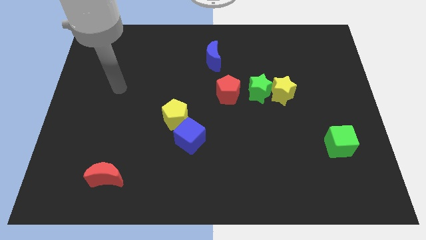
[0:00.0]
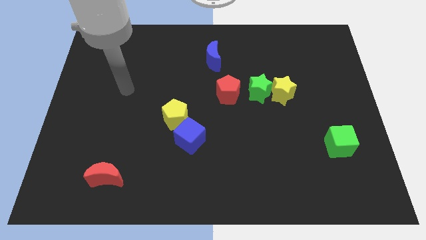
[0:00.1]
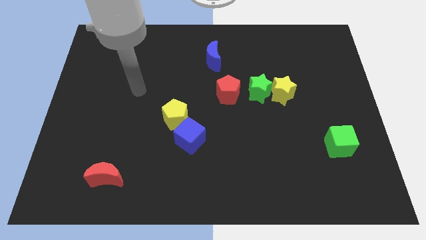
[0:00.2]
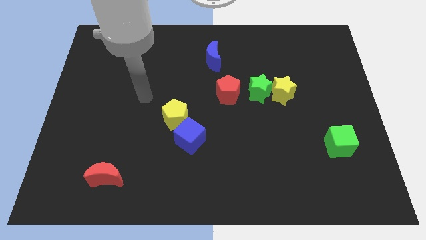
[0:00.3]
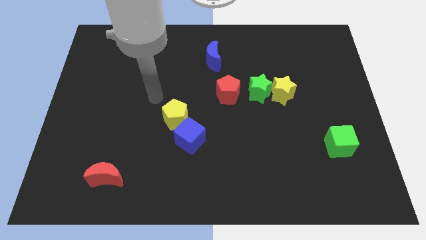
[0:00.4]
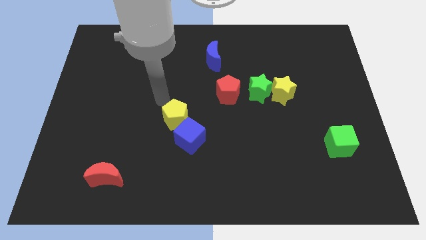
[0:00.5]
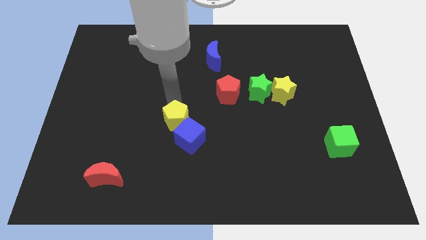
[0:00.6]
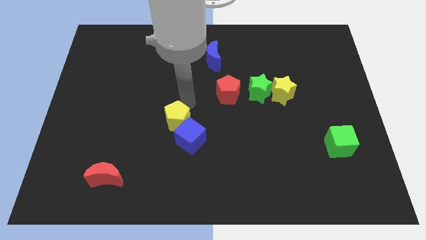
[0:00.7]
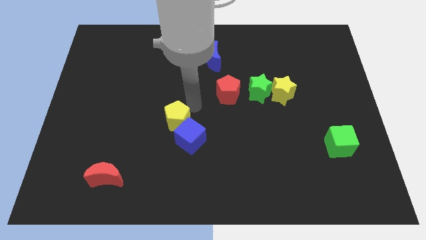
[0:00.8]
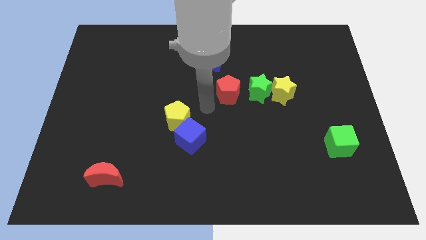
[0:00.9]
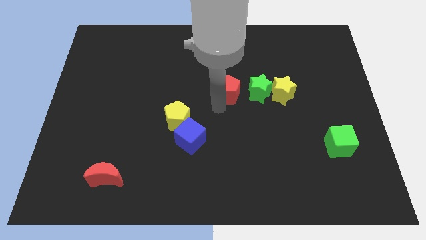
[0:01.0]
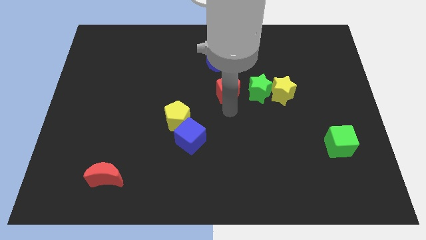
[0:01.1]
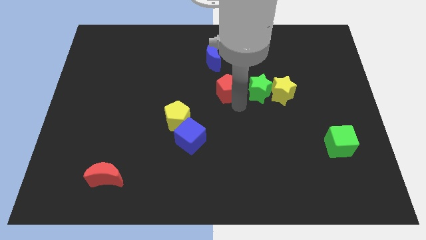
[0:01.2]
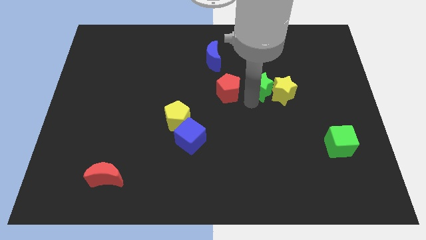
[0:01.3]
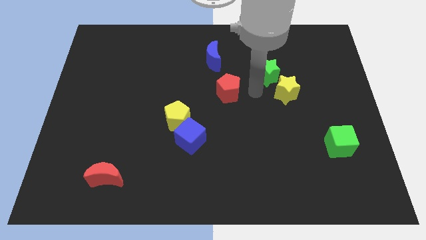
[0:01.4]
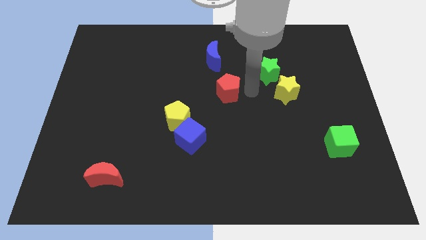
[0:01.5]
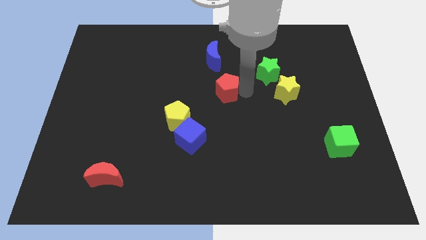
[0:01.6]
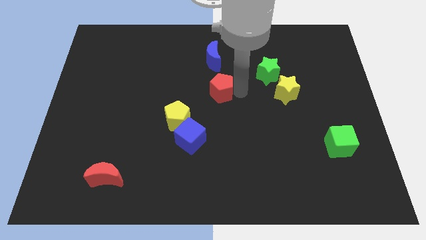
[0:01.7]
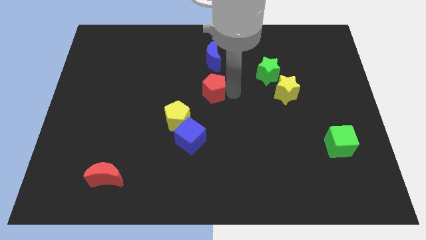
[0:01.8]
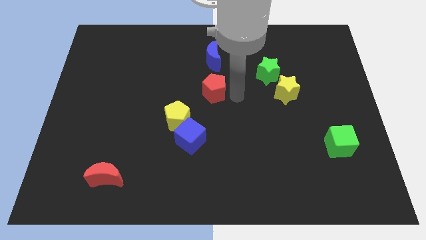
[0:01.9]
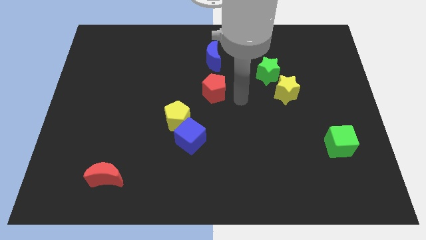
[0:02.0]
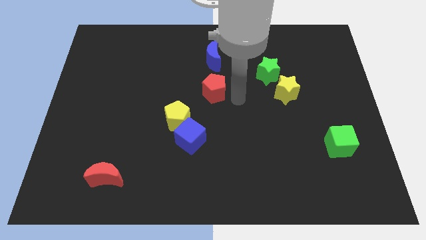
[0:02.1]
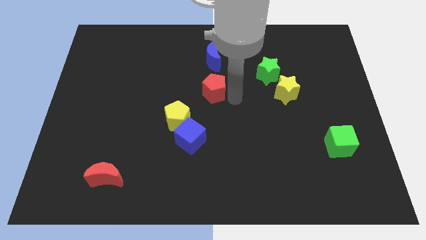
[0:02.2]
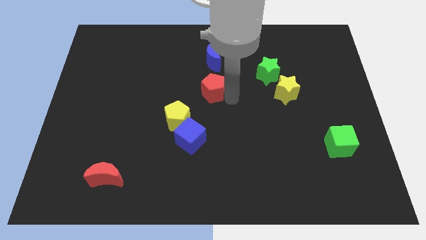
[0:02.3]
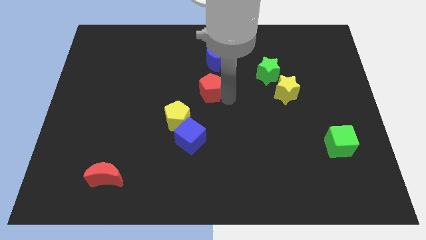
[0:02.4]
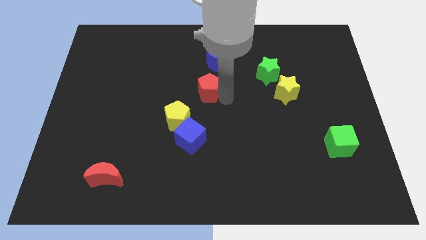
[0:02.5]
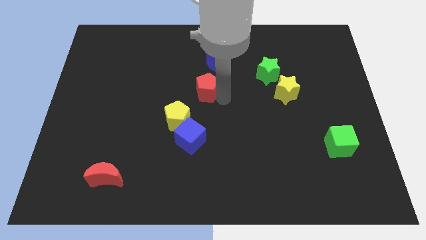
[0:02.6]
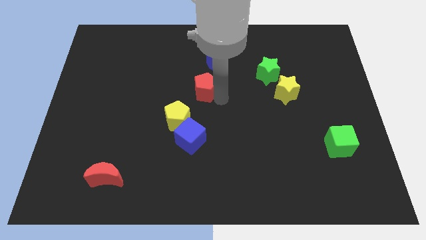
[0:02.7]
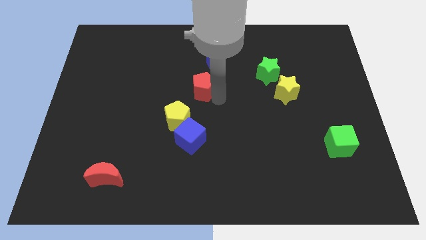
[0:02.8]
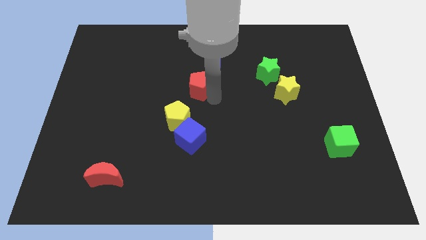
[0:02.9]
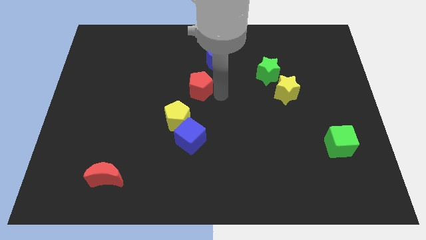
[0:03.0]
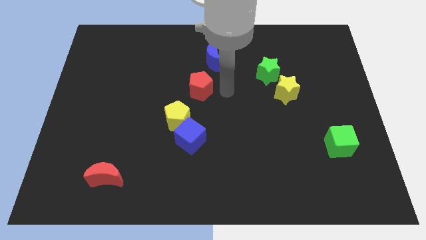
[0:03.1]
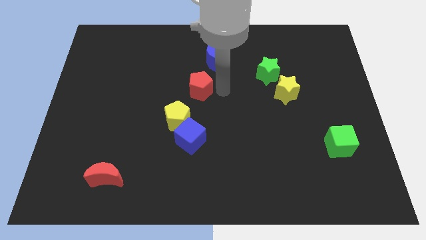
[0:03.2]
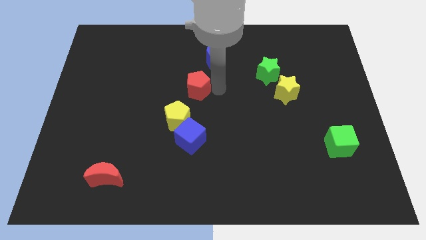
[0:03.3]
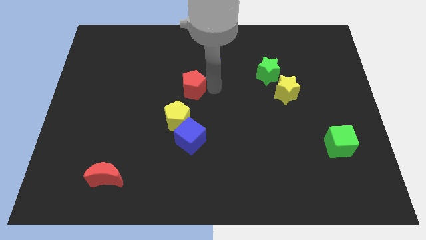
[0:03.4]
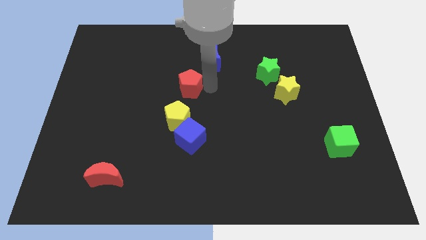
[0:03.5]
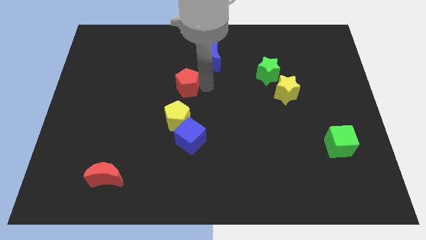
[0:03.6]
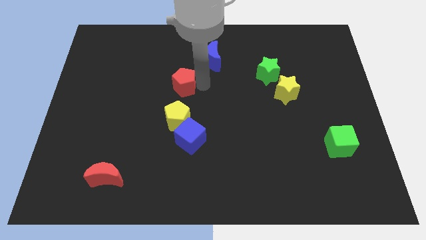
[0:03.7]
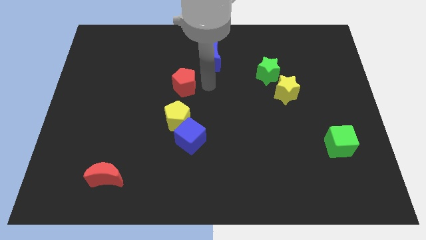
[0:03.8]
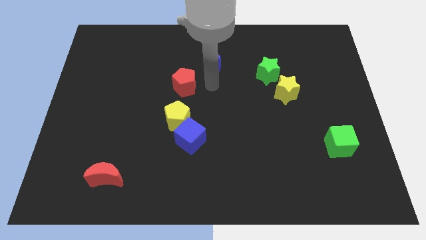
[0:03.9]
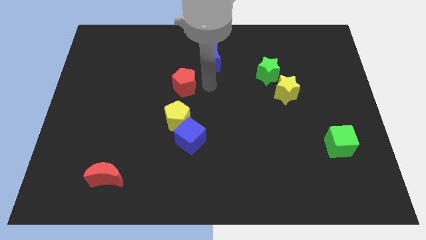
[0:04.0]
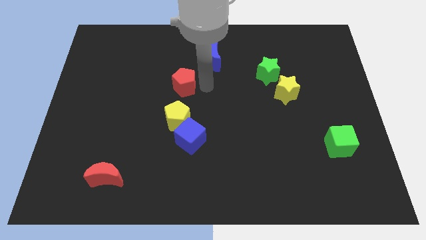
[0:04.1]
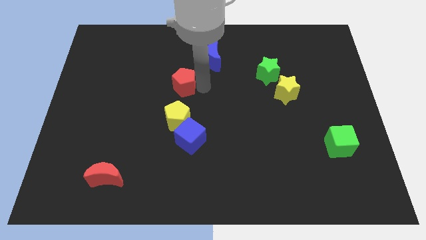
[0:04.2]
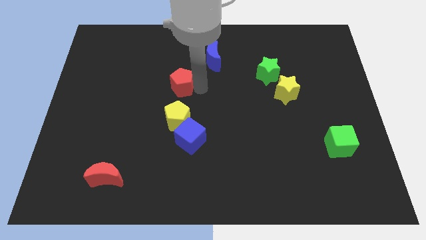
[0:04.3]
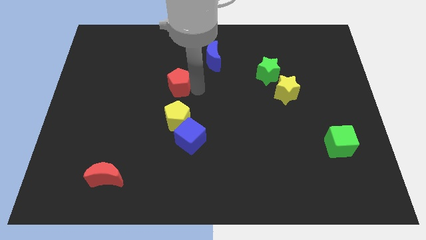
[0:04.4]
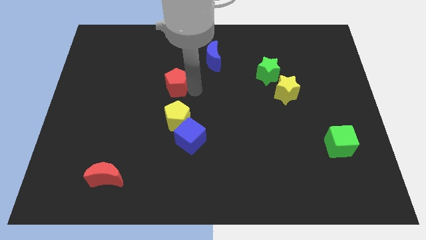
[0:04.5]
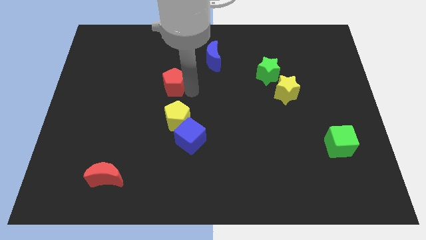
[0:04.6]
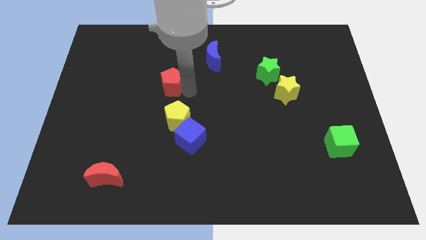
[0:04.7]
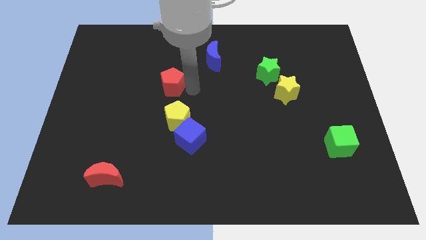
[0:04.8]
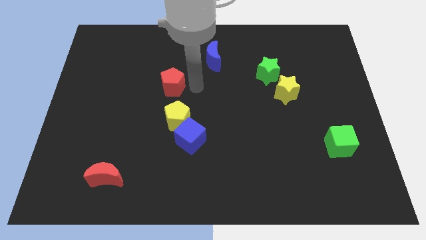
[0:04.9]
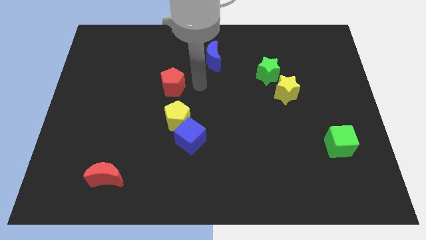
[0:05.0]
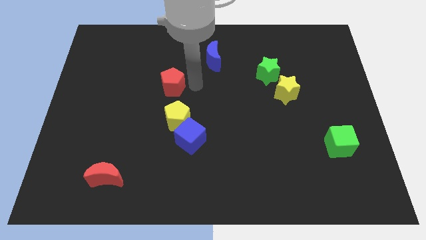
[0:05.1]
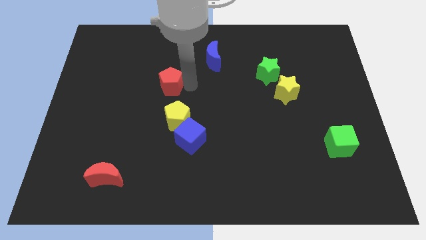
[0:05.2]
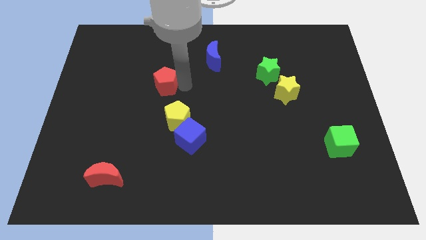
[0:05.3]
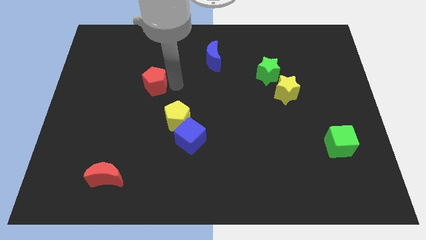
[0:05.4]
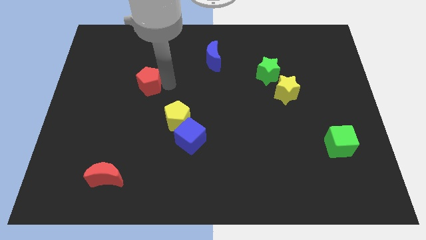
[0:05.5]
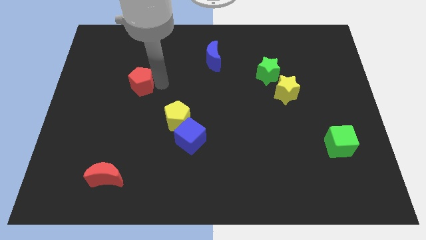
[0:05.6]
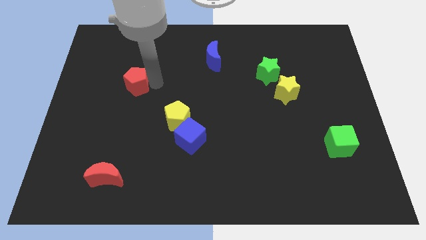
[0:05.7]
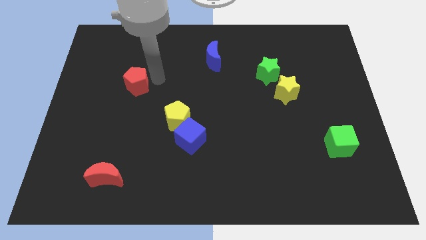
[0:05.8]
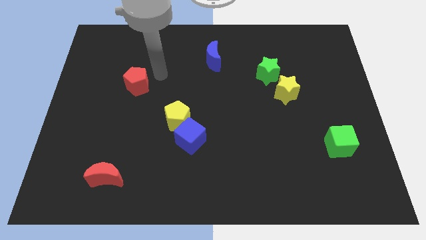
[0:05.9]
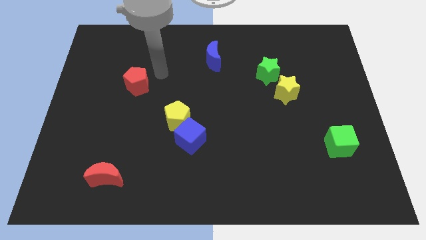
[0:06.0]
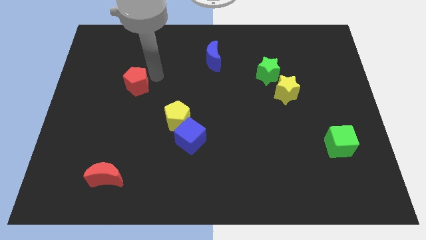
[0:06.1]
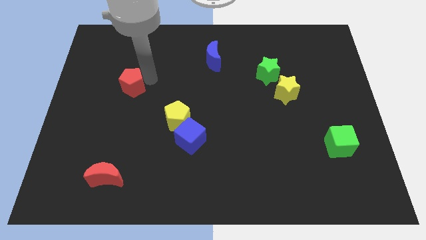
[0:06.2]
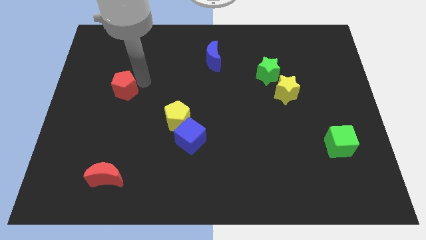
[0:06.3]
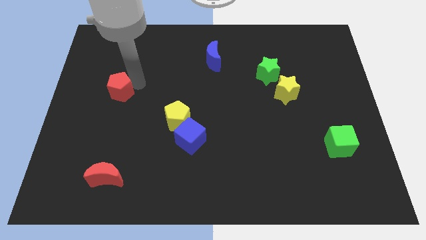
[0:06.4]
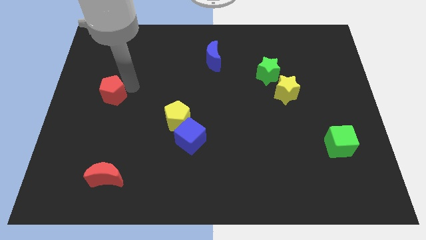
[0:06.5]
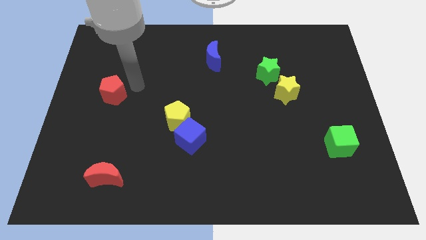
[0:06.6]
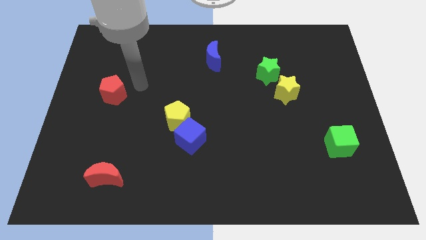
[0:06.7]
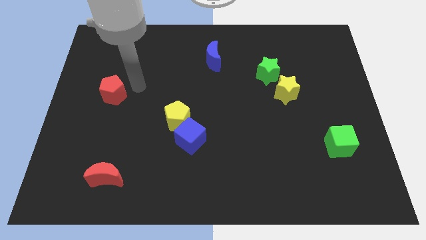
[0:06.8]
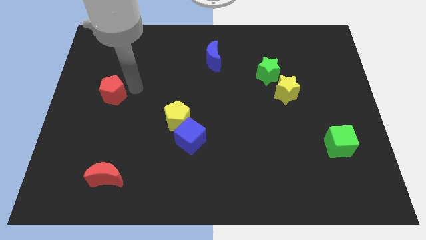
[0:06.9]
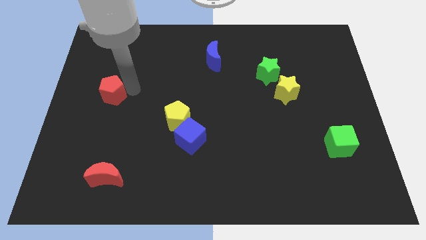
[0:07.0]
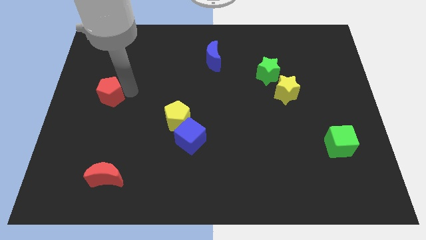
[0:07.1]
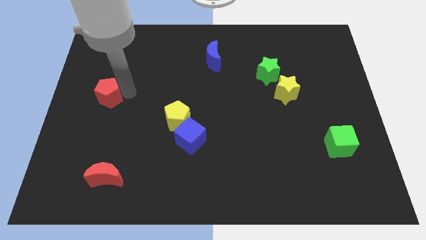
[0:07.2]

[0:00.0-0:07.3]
put the red pentagon to the left side of the board
